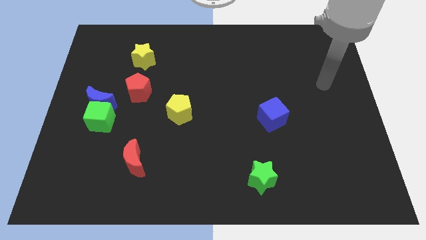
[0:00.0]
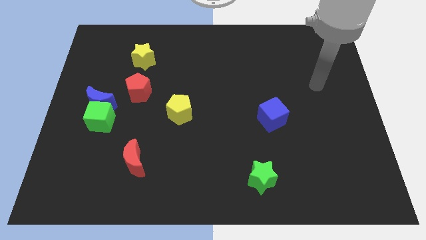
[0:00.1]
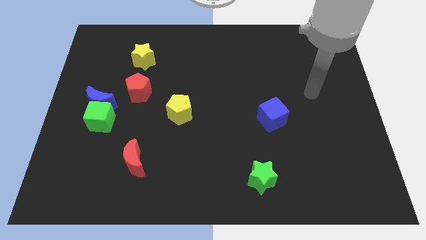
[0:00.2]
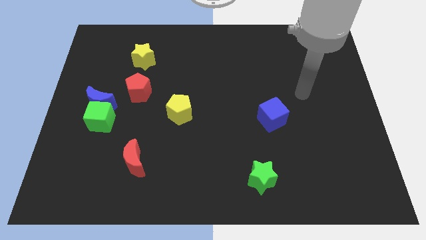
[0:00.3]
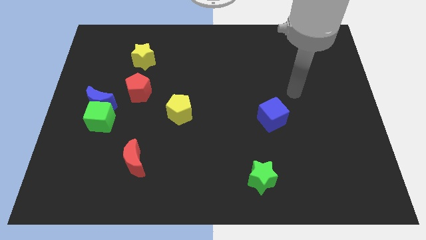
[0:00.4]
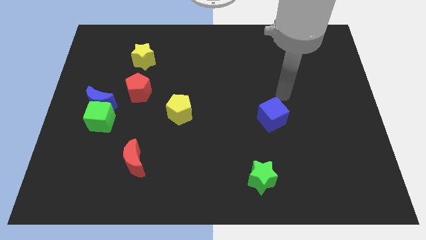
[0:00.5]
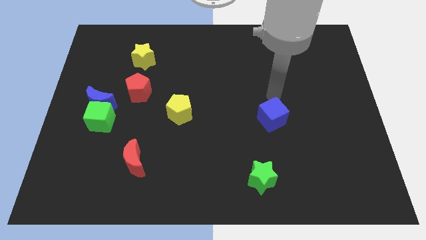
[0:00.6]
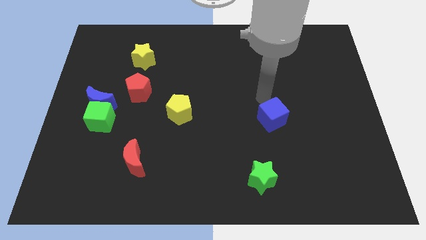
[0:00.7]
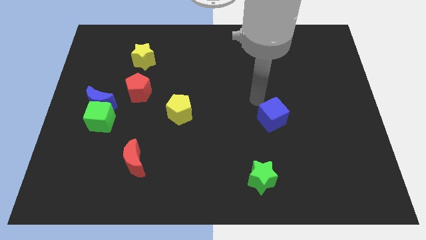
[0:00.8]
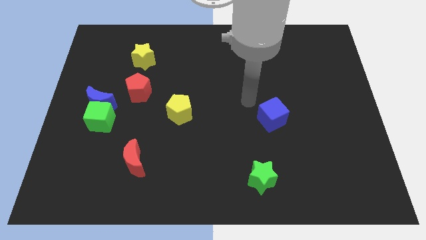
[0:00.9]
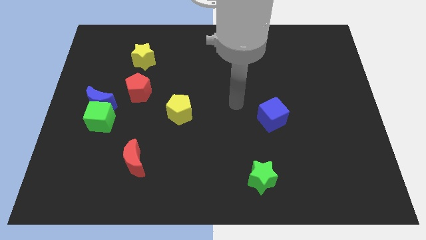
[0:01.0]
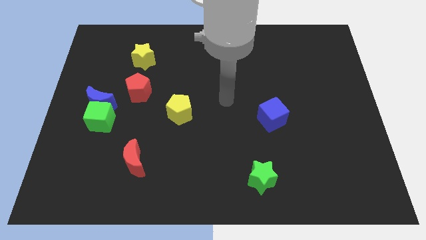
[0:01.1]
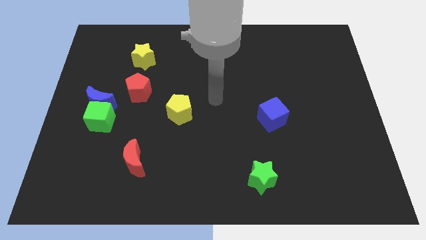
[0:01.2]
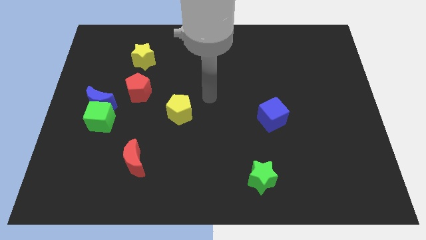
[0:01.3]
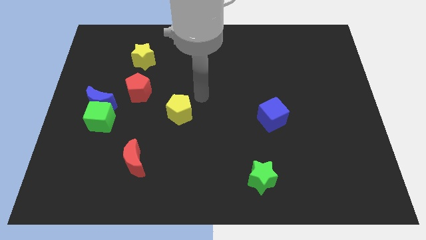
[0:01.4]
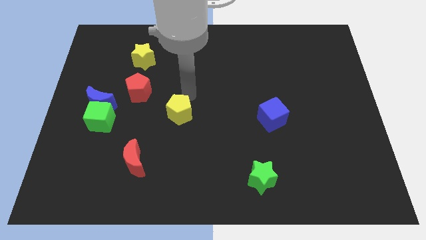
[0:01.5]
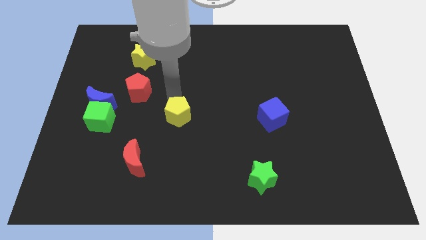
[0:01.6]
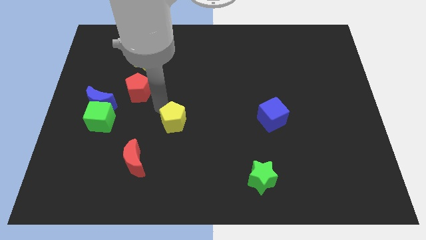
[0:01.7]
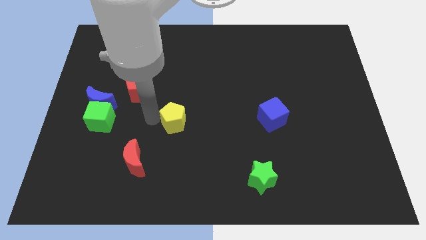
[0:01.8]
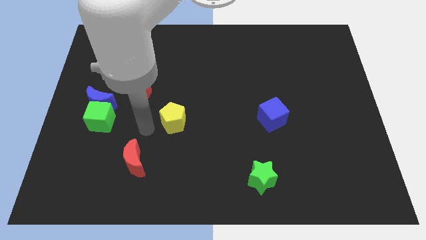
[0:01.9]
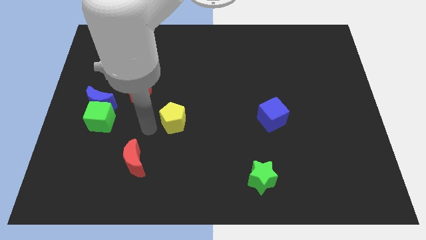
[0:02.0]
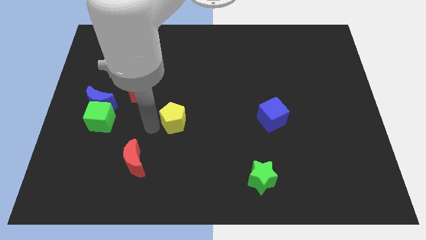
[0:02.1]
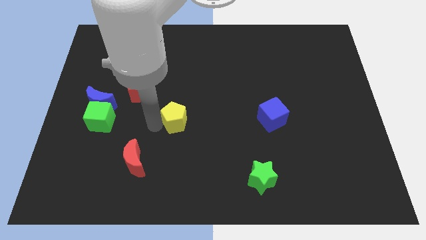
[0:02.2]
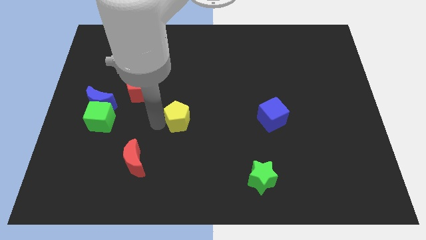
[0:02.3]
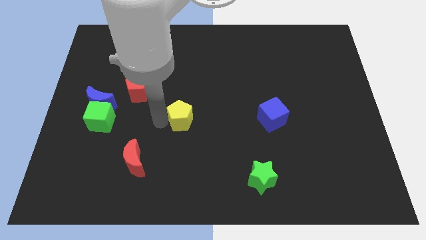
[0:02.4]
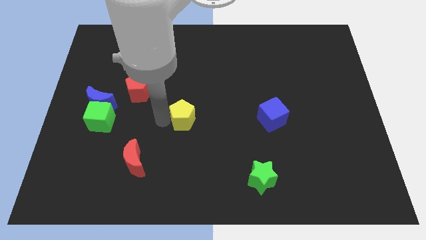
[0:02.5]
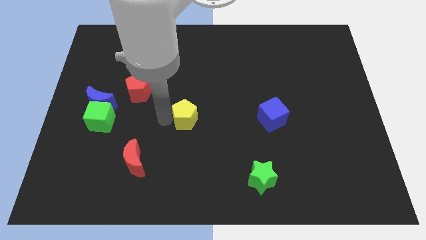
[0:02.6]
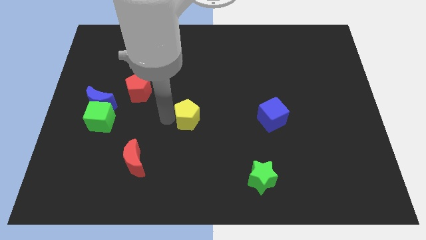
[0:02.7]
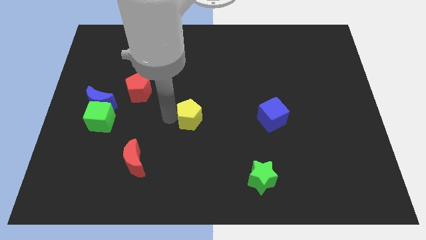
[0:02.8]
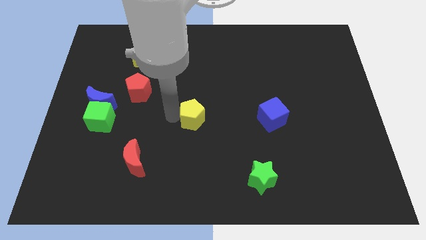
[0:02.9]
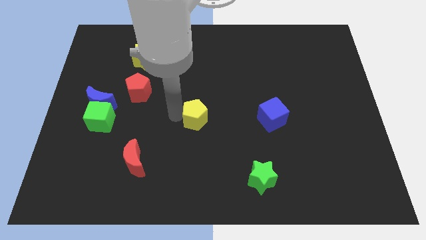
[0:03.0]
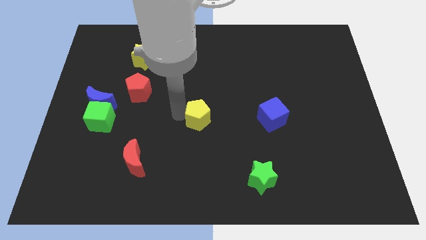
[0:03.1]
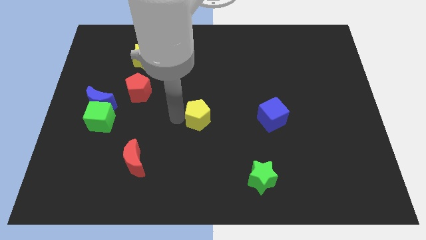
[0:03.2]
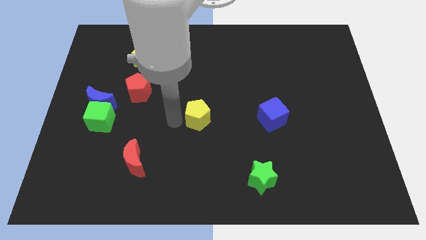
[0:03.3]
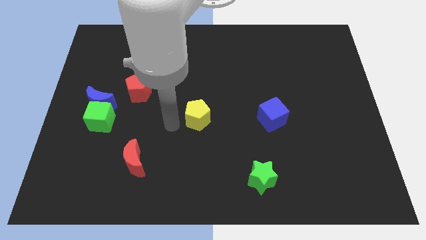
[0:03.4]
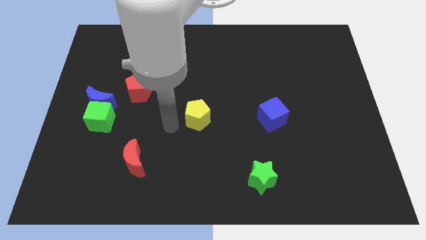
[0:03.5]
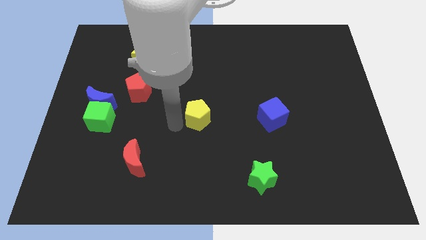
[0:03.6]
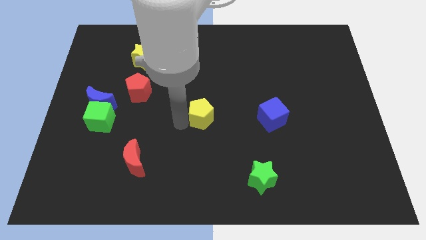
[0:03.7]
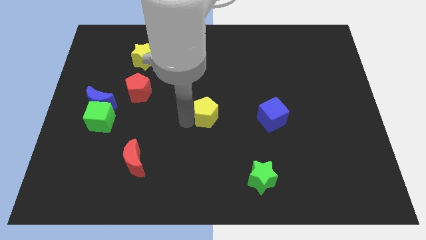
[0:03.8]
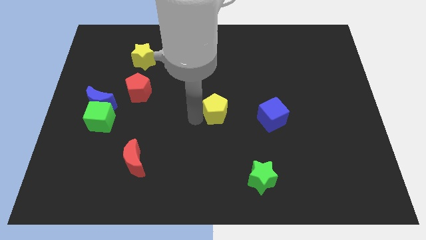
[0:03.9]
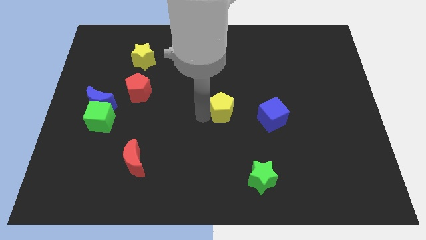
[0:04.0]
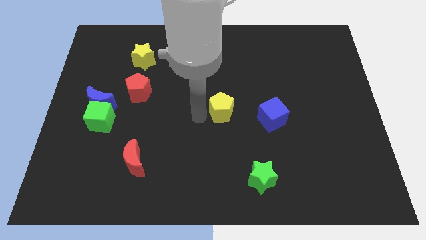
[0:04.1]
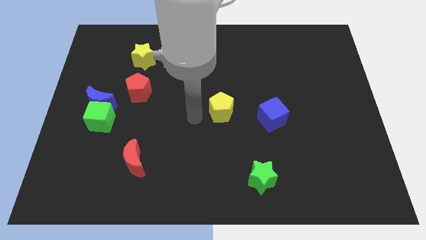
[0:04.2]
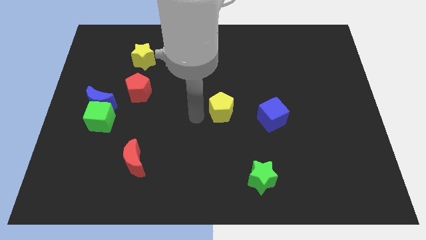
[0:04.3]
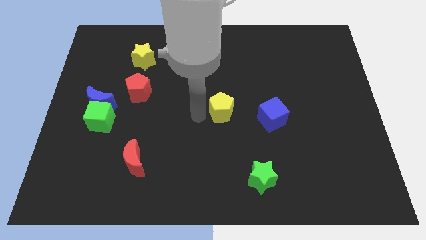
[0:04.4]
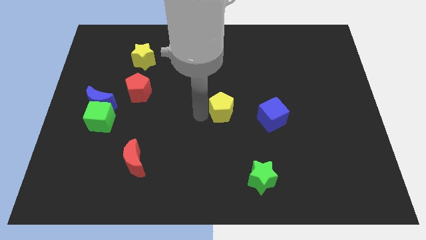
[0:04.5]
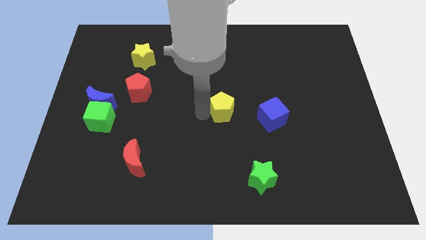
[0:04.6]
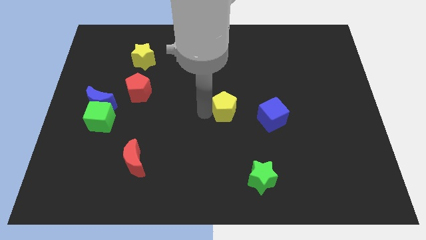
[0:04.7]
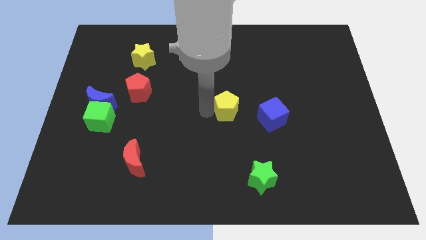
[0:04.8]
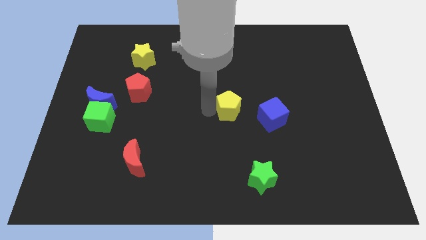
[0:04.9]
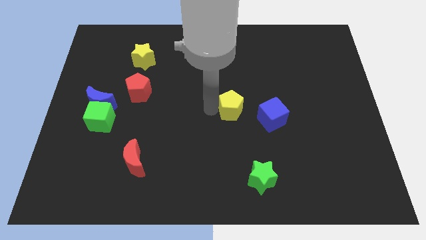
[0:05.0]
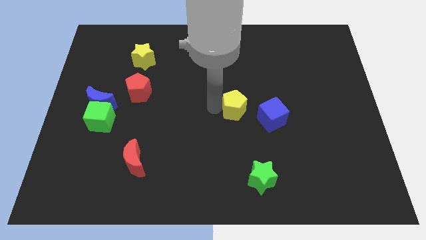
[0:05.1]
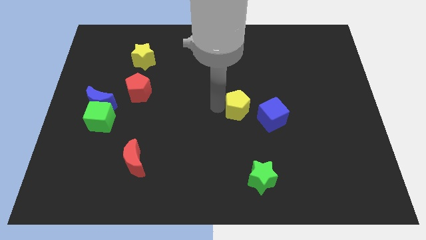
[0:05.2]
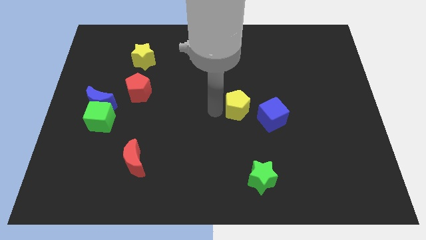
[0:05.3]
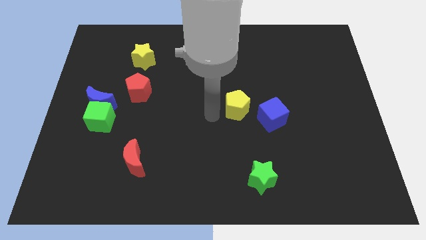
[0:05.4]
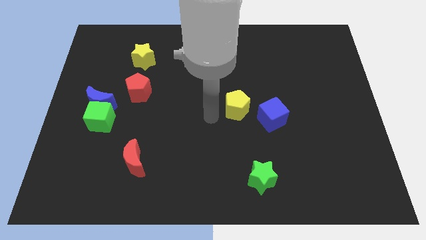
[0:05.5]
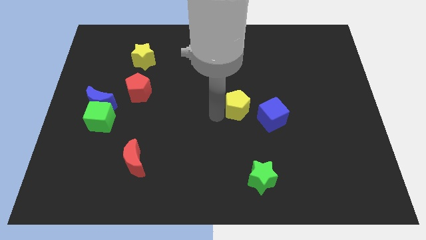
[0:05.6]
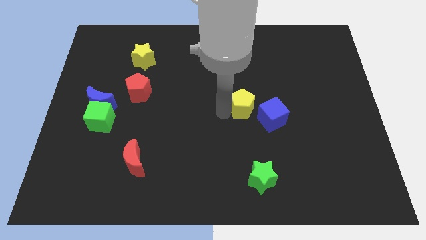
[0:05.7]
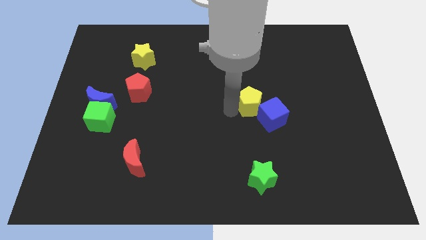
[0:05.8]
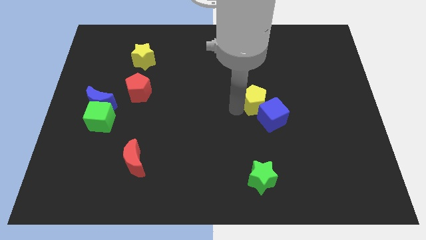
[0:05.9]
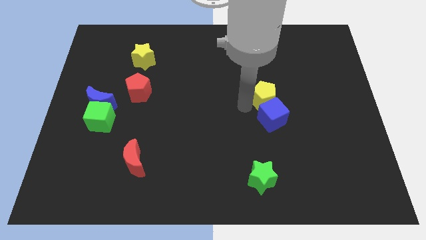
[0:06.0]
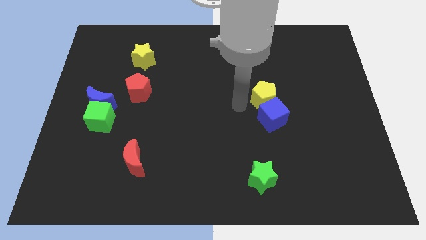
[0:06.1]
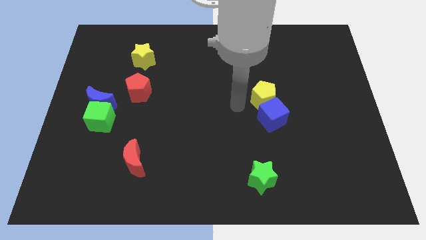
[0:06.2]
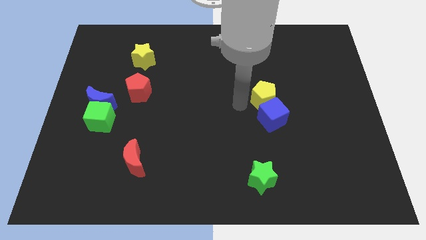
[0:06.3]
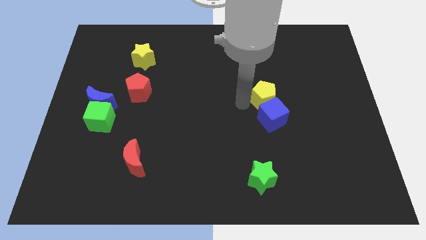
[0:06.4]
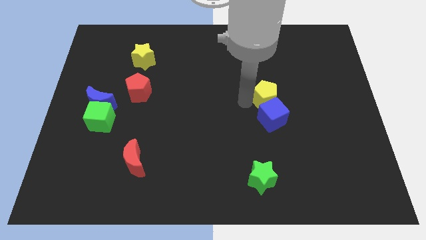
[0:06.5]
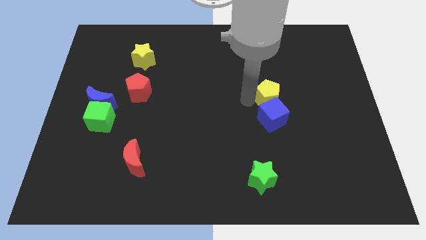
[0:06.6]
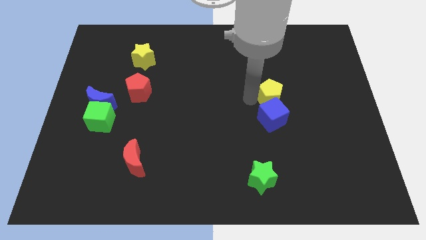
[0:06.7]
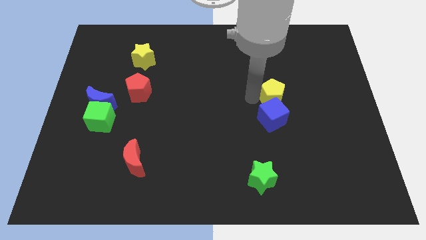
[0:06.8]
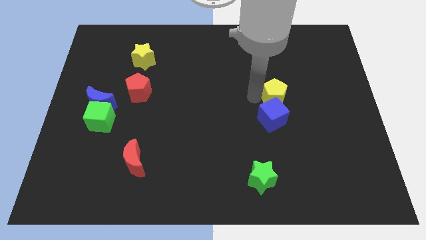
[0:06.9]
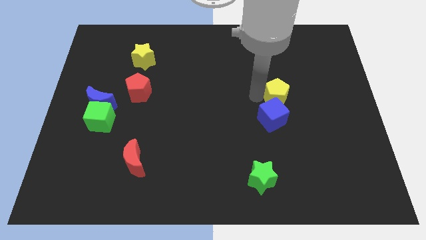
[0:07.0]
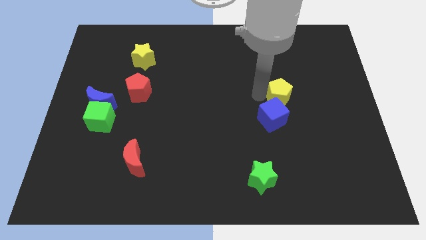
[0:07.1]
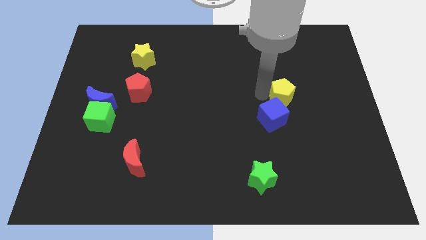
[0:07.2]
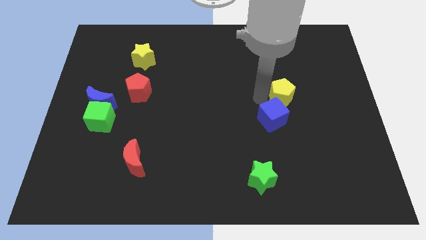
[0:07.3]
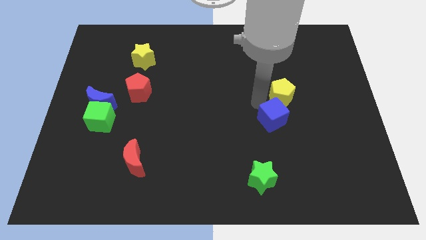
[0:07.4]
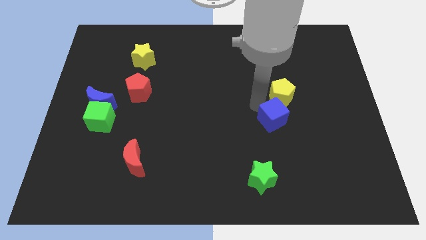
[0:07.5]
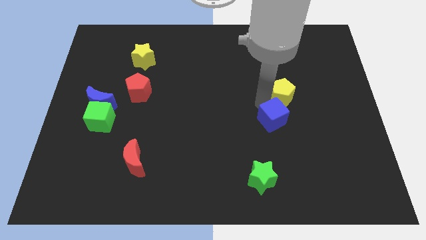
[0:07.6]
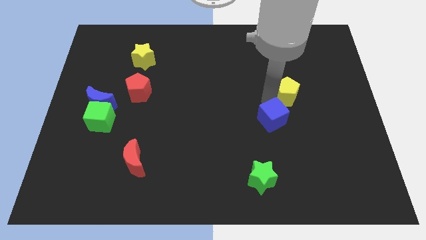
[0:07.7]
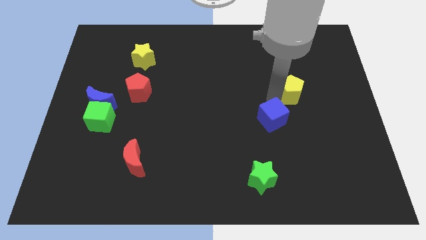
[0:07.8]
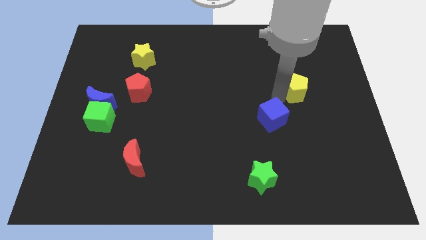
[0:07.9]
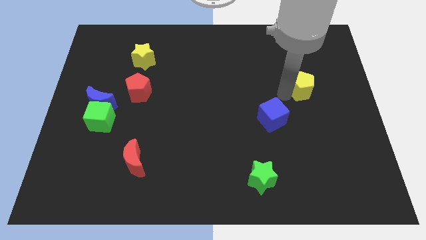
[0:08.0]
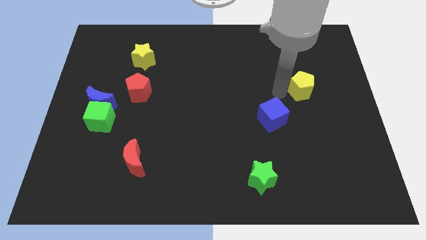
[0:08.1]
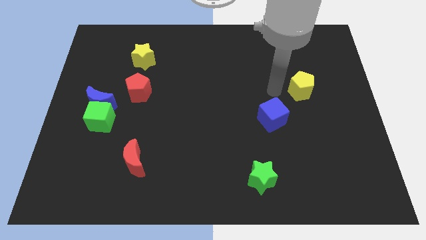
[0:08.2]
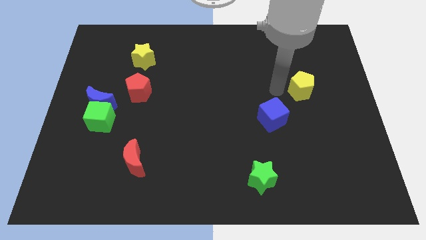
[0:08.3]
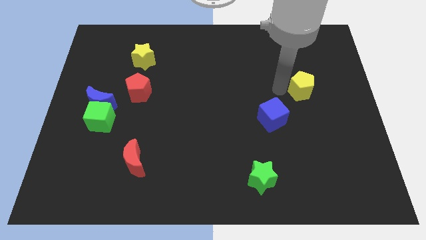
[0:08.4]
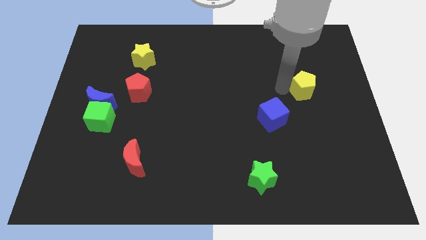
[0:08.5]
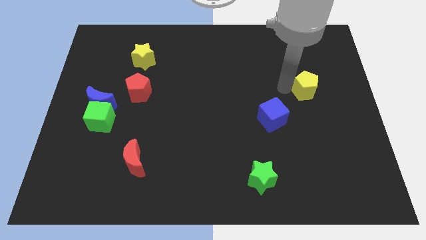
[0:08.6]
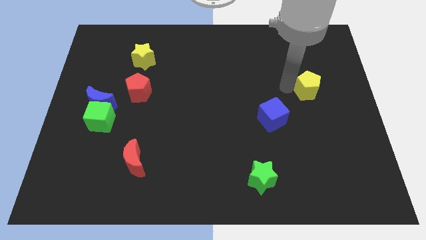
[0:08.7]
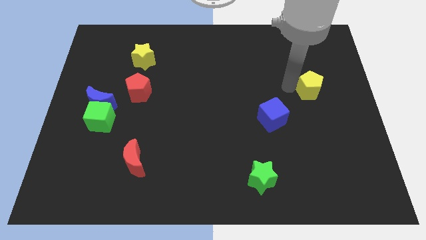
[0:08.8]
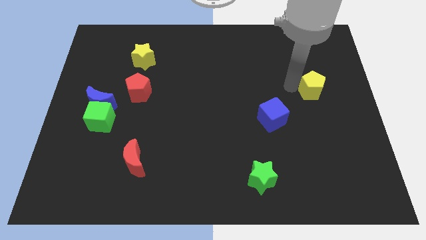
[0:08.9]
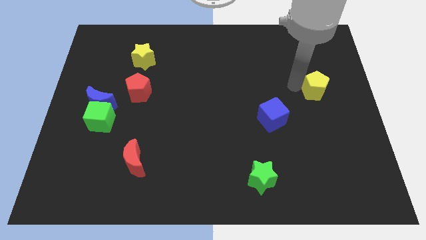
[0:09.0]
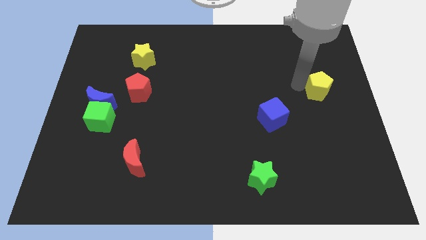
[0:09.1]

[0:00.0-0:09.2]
put the yellow pentagon to the center right
